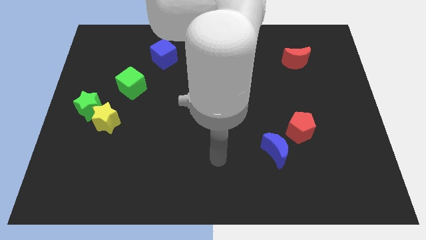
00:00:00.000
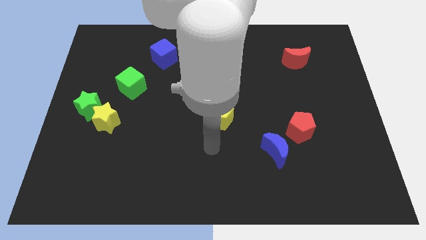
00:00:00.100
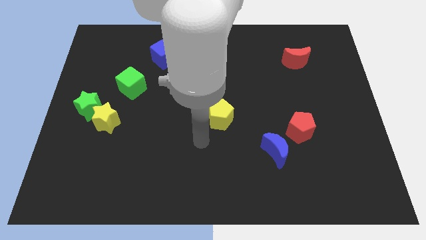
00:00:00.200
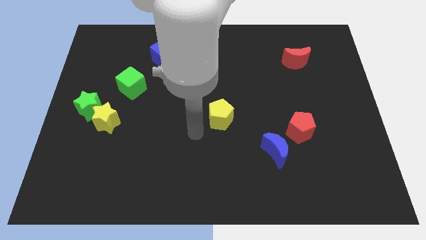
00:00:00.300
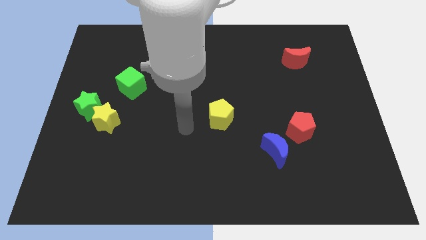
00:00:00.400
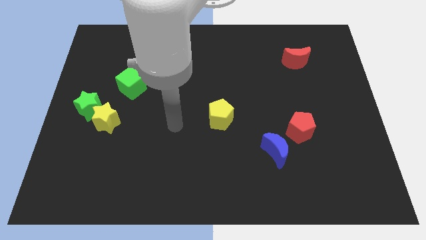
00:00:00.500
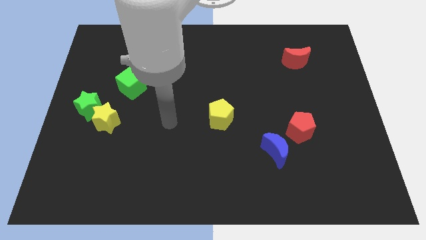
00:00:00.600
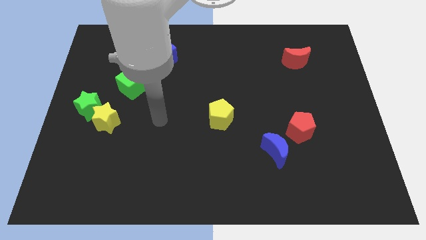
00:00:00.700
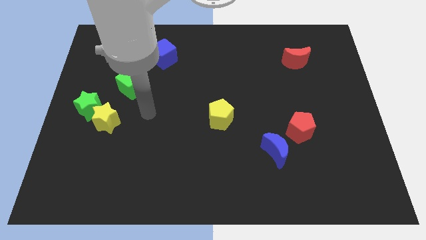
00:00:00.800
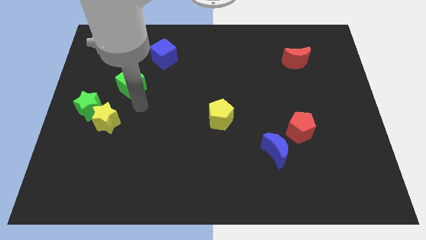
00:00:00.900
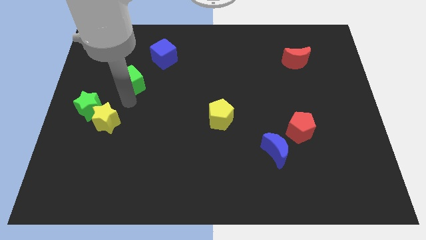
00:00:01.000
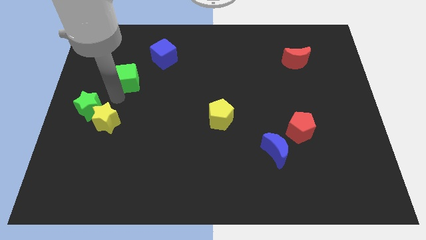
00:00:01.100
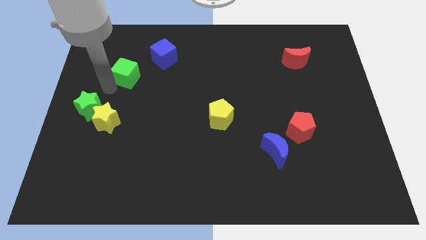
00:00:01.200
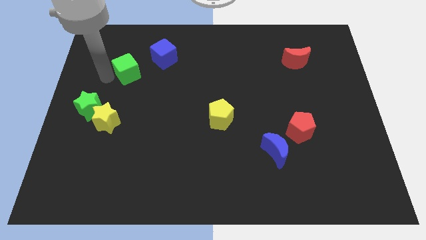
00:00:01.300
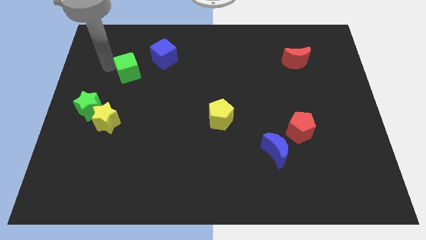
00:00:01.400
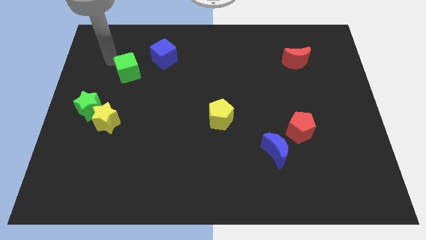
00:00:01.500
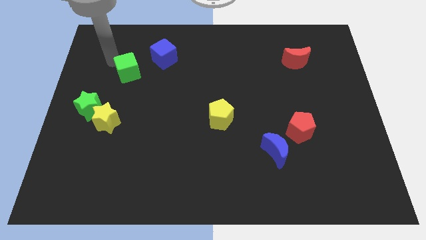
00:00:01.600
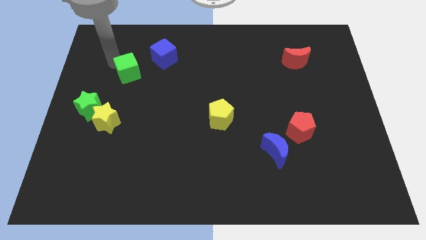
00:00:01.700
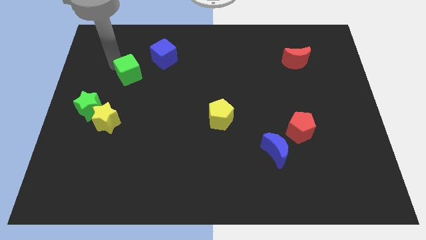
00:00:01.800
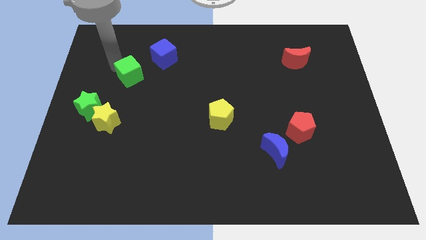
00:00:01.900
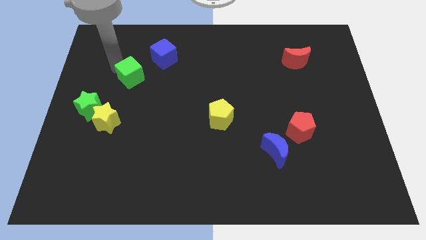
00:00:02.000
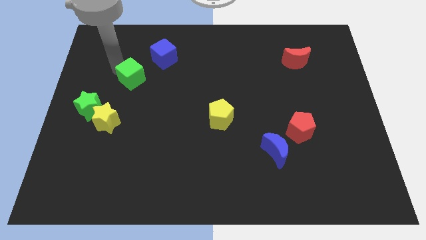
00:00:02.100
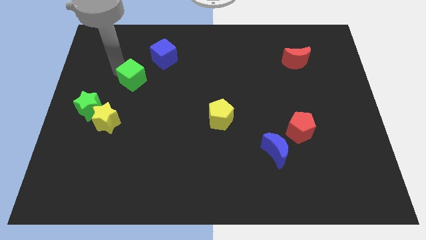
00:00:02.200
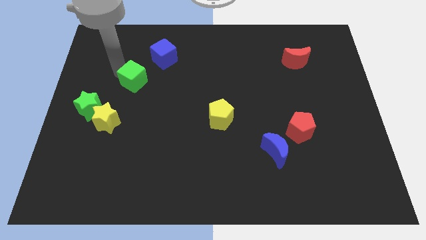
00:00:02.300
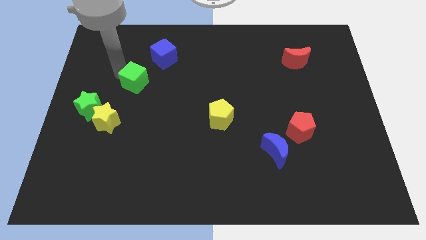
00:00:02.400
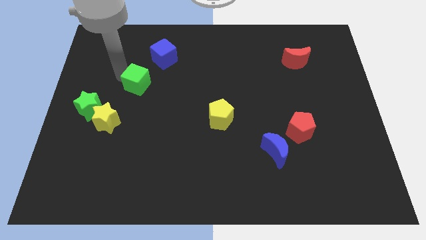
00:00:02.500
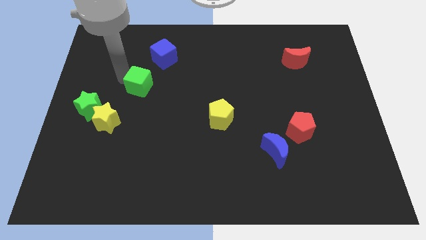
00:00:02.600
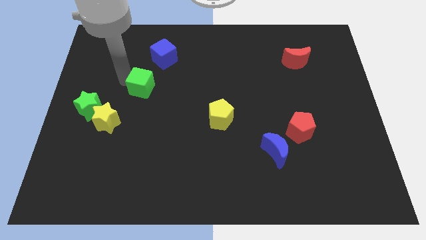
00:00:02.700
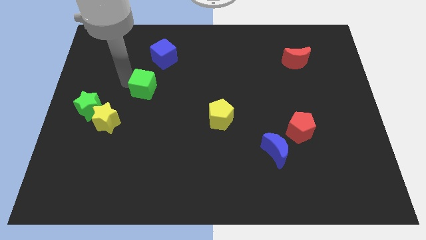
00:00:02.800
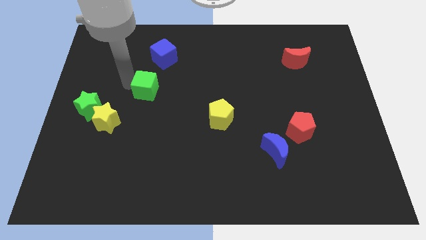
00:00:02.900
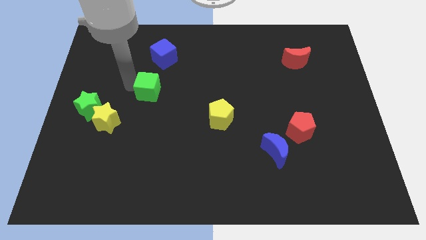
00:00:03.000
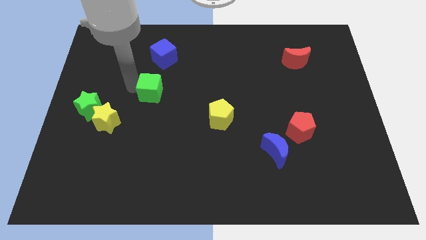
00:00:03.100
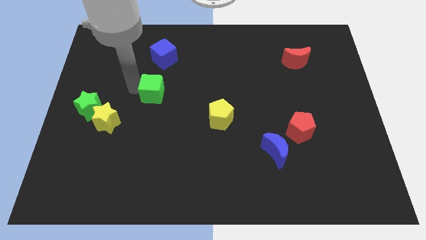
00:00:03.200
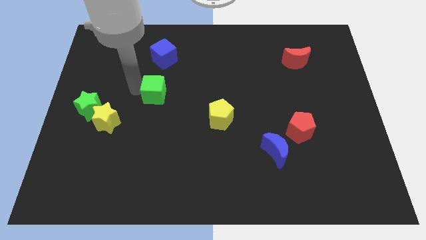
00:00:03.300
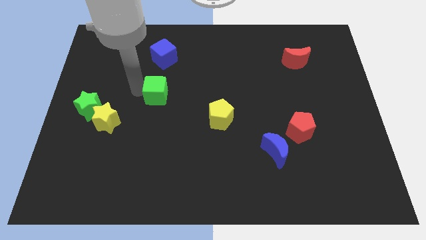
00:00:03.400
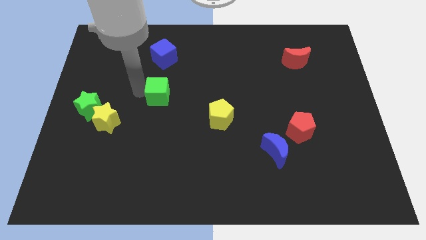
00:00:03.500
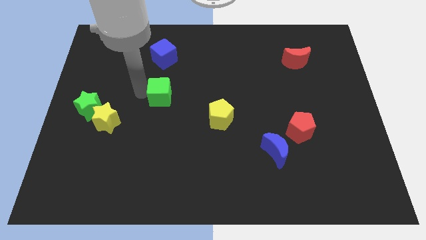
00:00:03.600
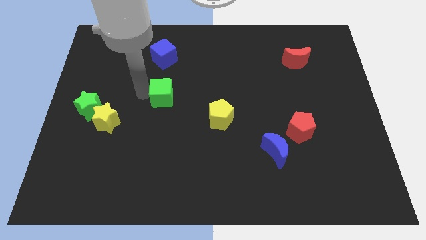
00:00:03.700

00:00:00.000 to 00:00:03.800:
put the green cube to the center

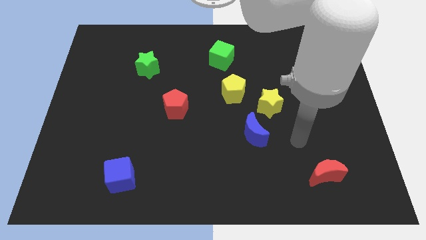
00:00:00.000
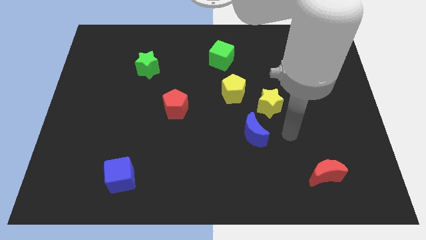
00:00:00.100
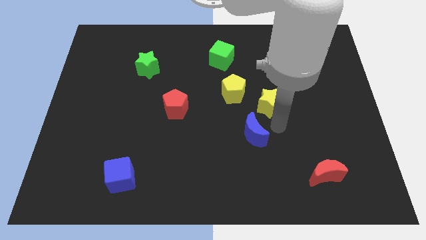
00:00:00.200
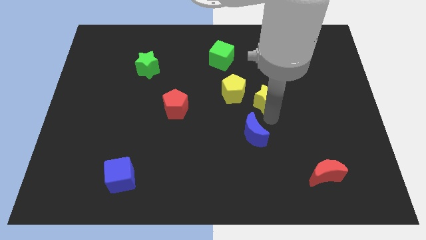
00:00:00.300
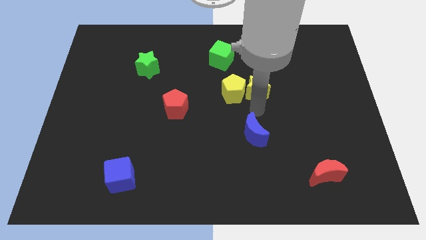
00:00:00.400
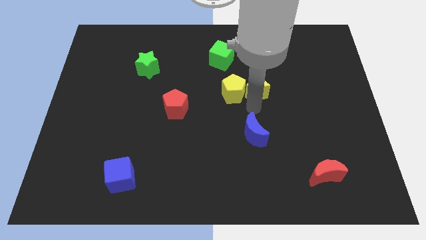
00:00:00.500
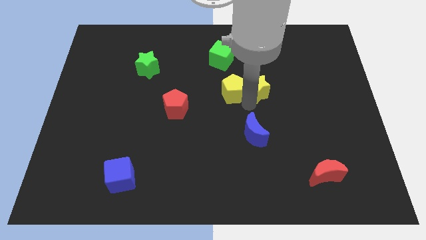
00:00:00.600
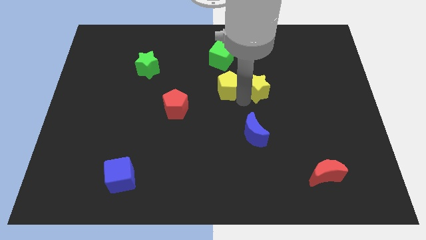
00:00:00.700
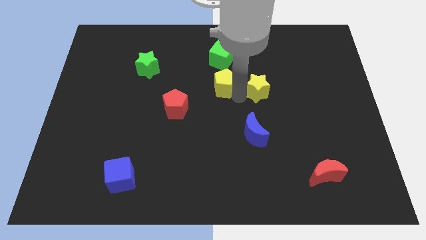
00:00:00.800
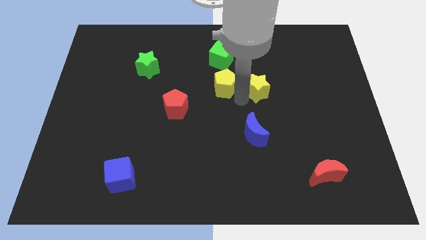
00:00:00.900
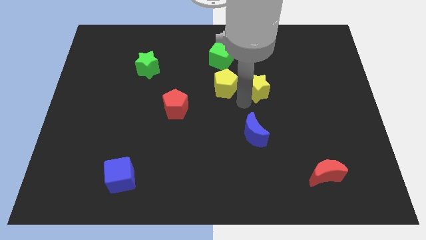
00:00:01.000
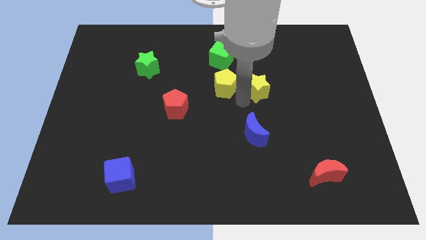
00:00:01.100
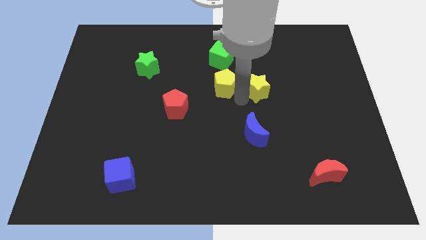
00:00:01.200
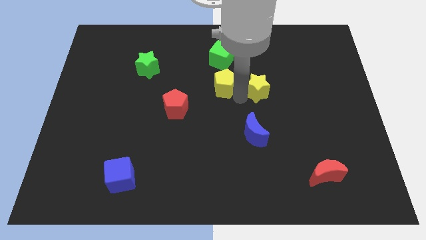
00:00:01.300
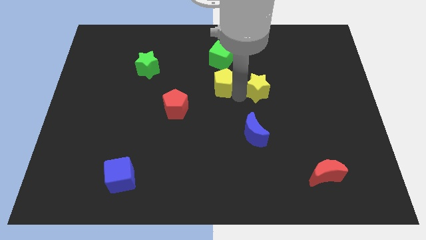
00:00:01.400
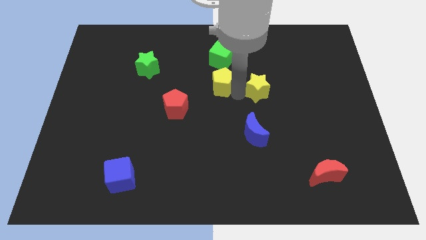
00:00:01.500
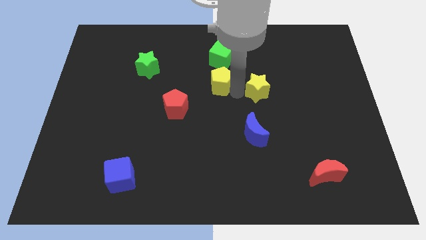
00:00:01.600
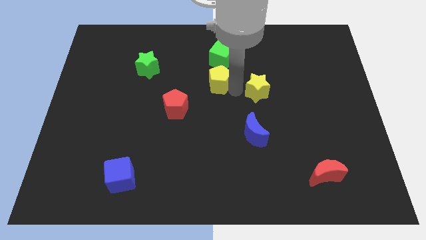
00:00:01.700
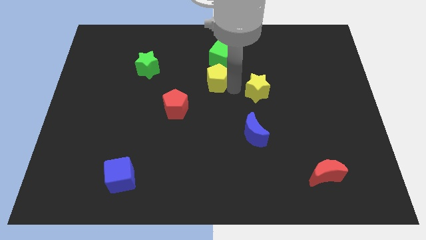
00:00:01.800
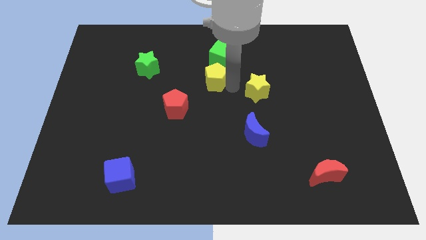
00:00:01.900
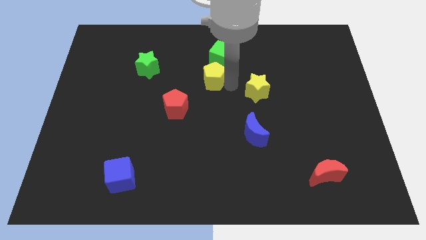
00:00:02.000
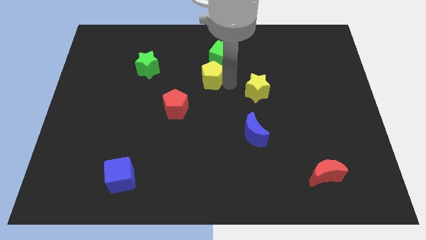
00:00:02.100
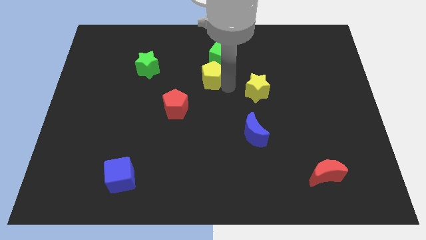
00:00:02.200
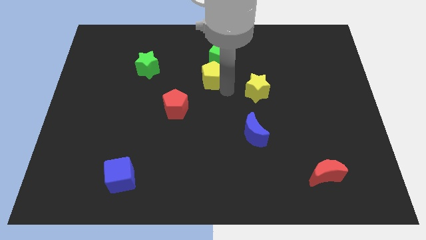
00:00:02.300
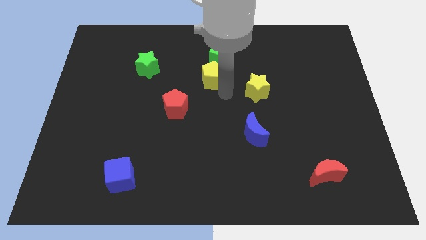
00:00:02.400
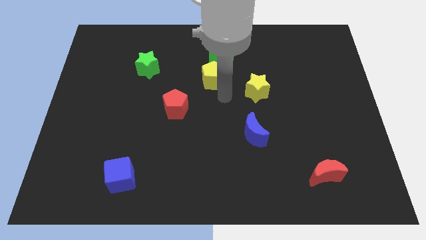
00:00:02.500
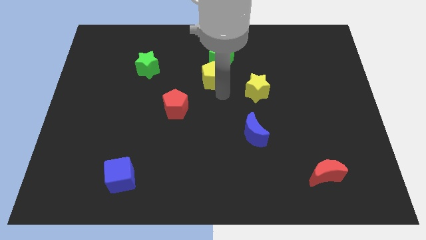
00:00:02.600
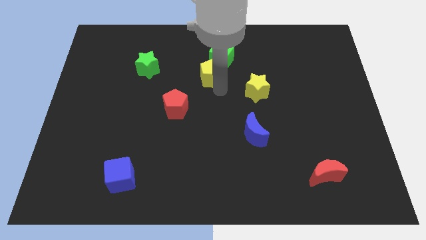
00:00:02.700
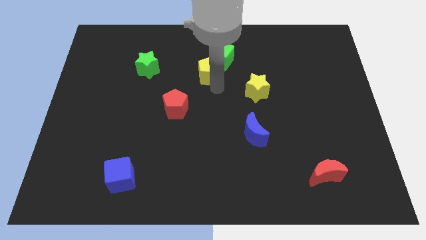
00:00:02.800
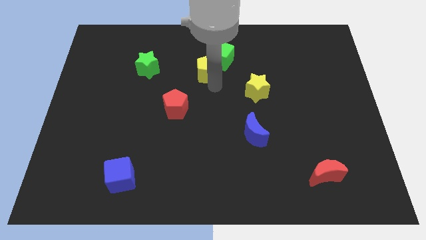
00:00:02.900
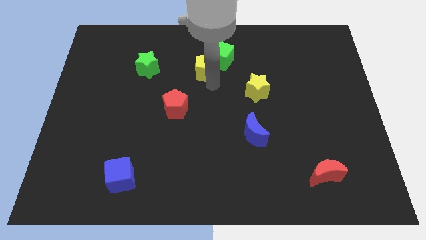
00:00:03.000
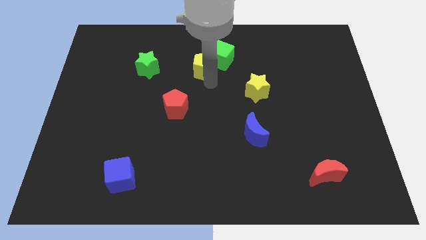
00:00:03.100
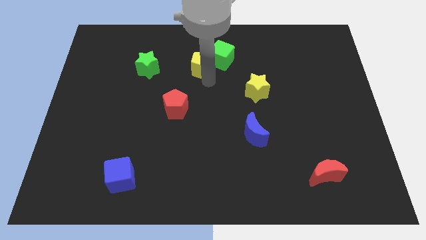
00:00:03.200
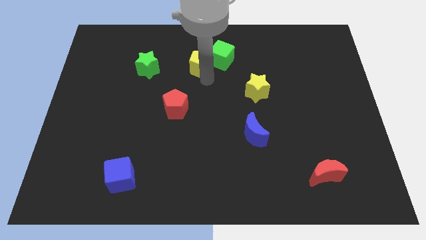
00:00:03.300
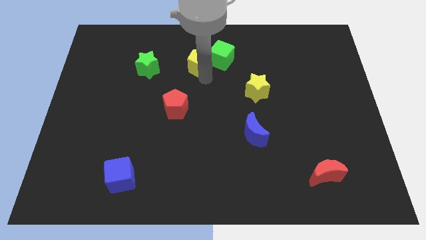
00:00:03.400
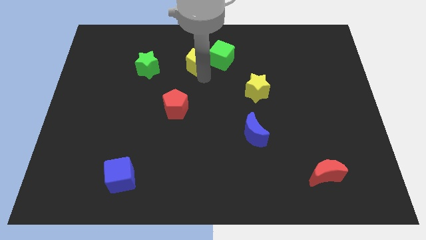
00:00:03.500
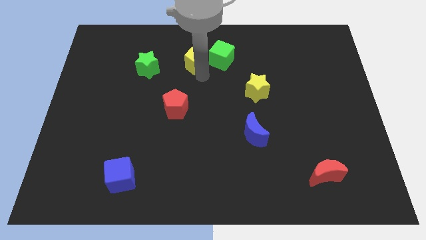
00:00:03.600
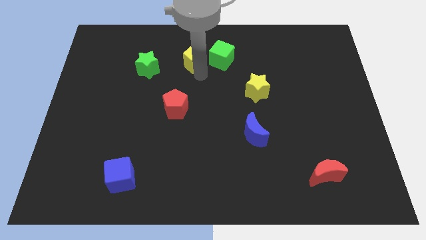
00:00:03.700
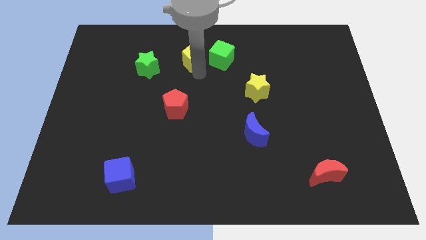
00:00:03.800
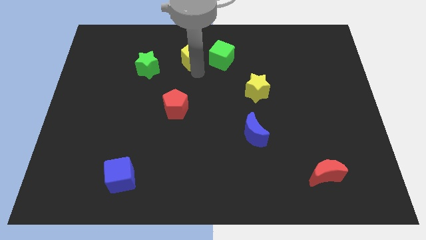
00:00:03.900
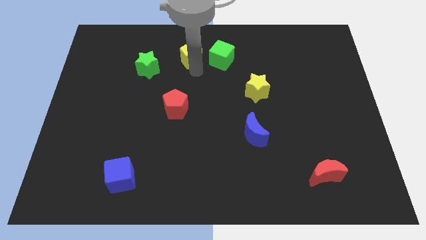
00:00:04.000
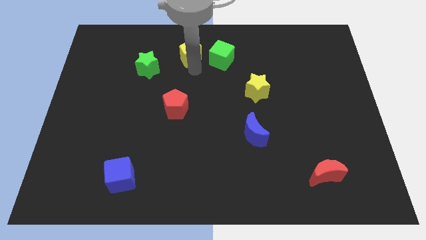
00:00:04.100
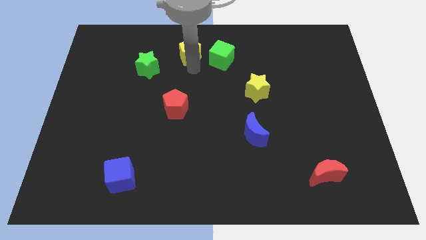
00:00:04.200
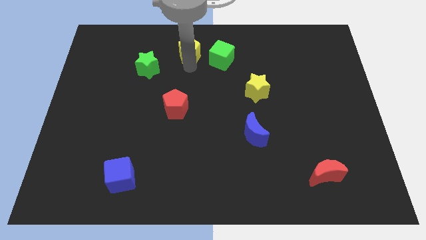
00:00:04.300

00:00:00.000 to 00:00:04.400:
move the yellow pentagon to the top side
